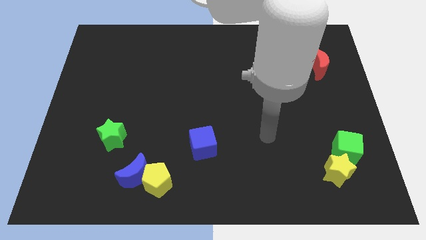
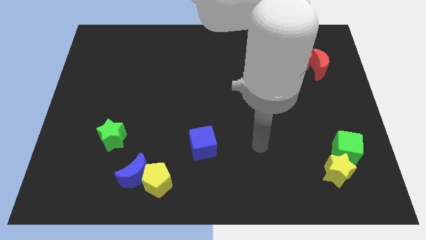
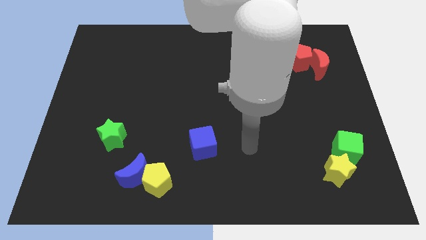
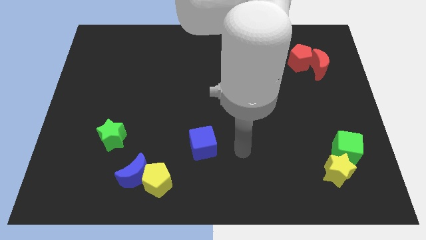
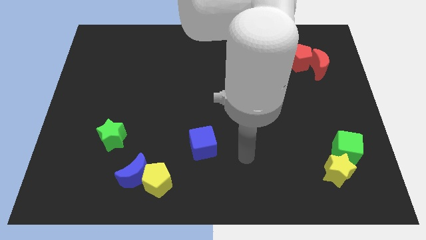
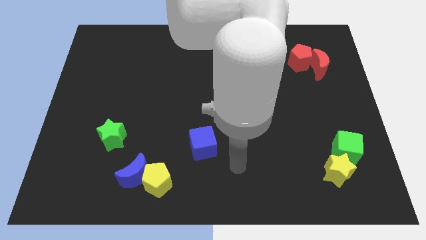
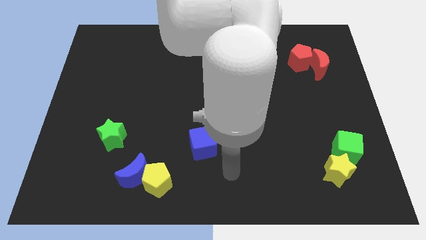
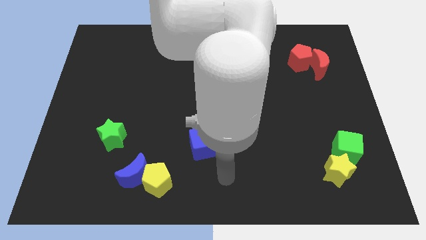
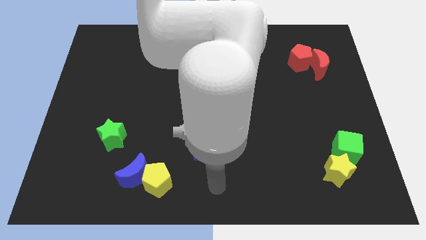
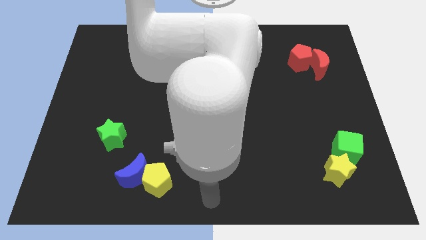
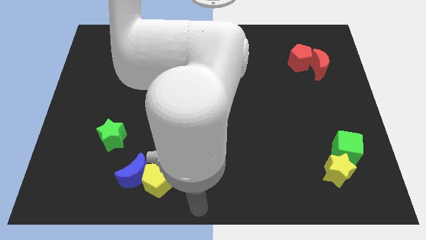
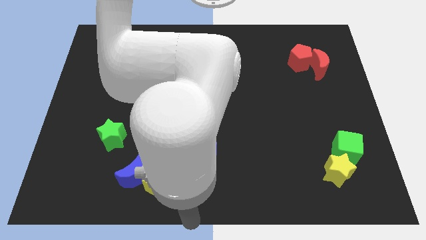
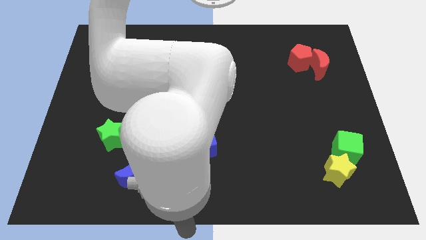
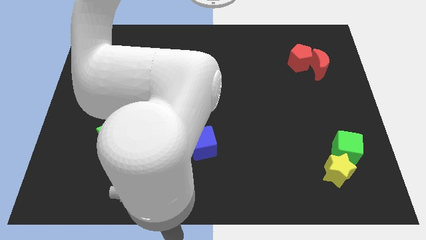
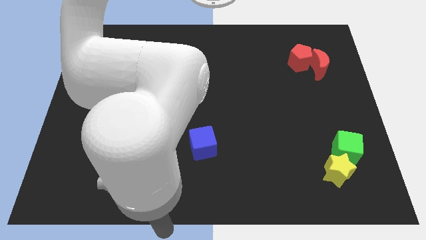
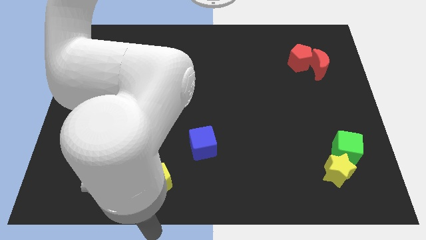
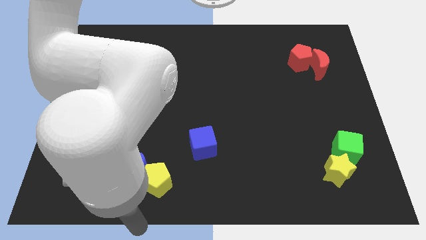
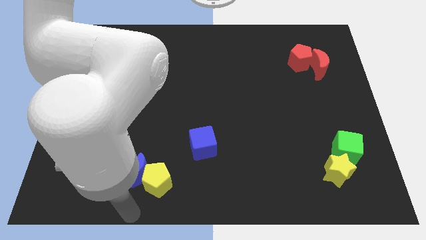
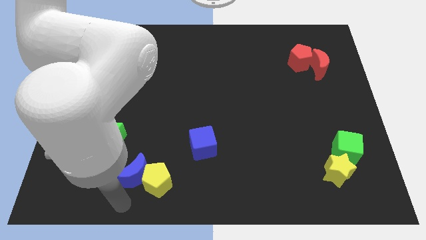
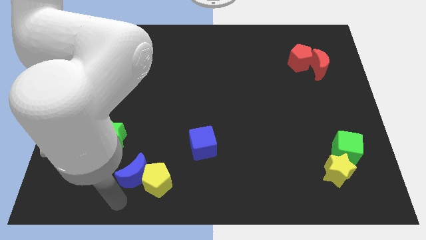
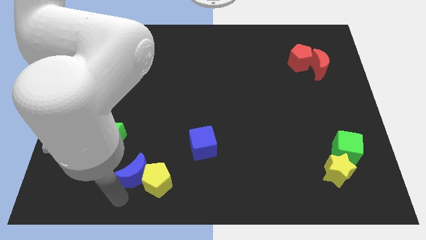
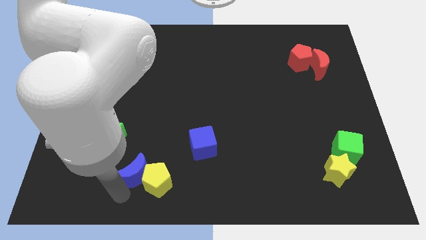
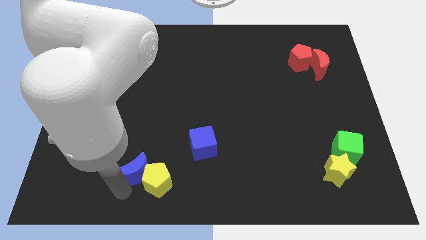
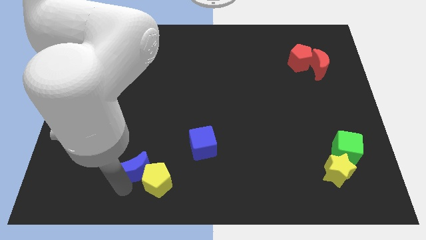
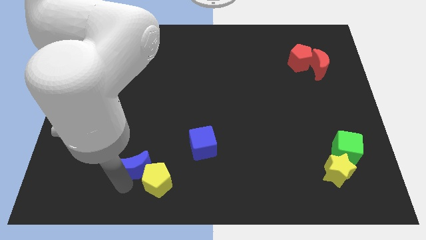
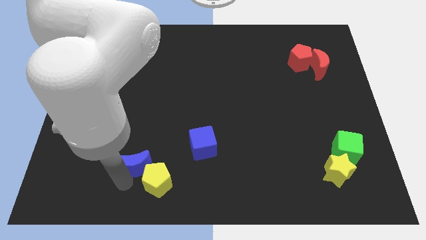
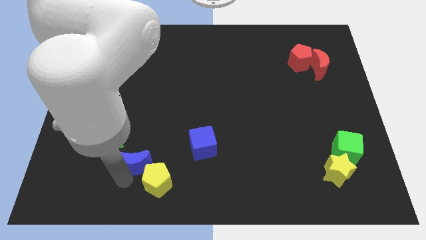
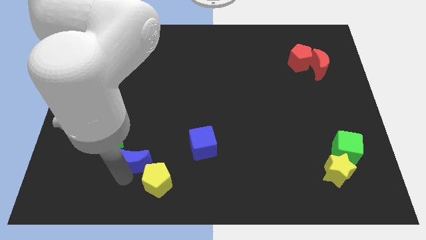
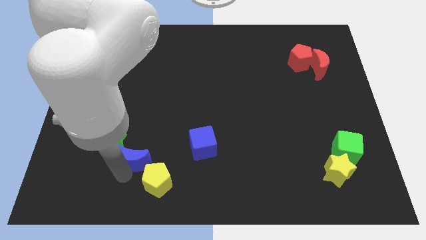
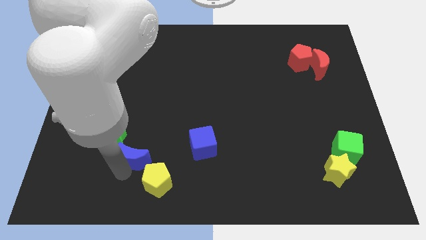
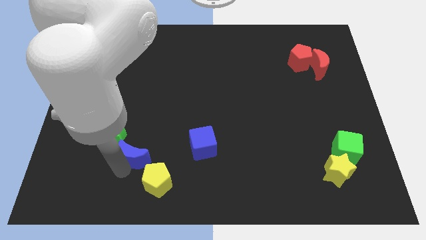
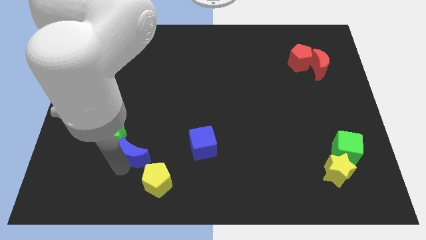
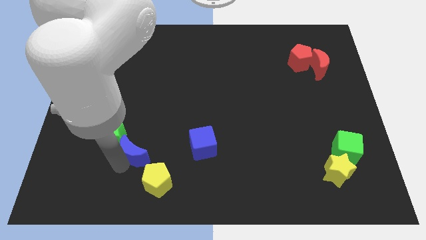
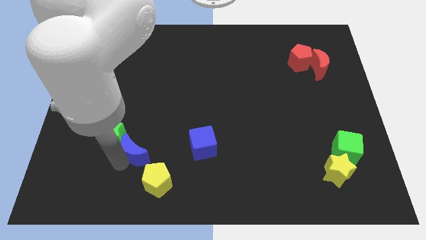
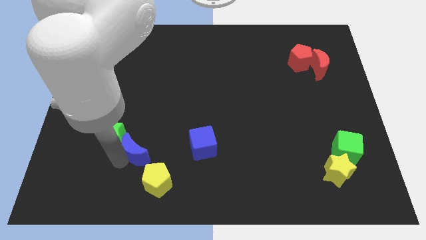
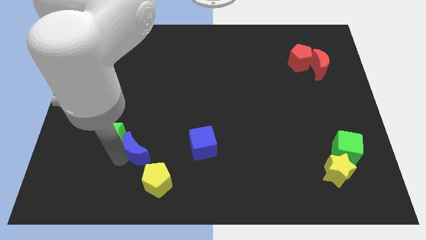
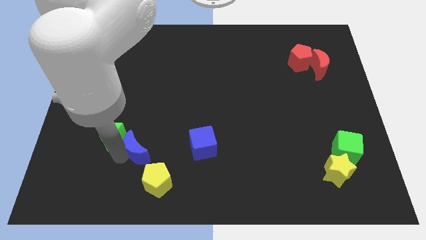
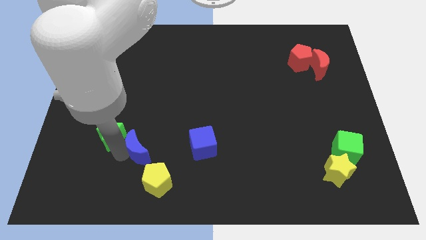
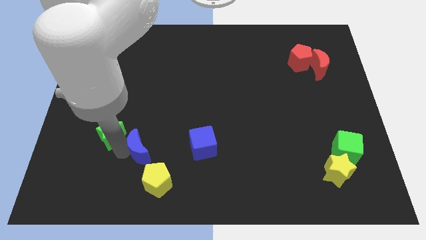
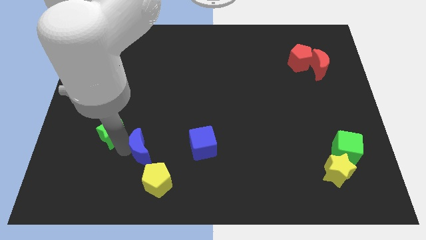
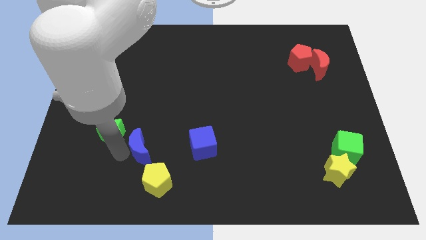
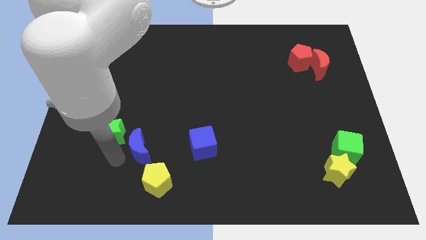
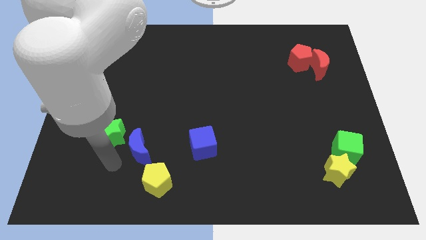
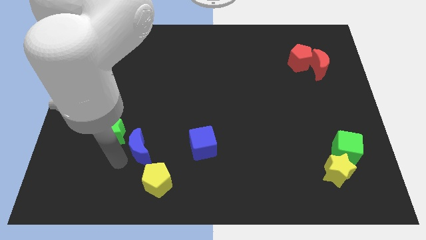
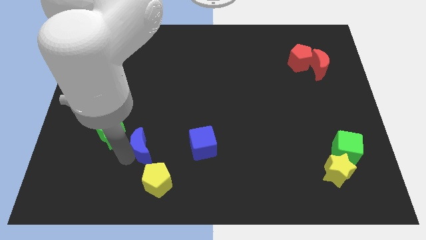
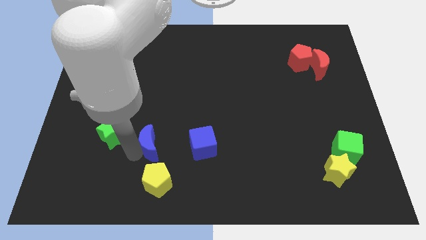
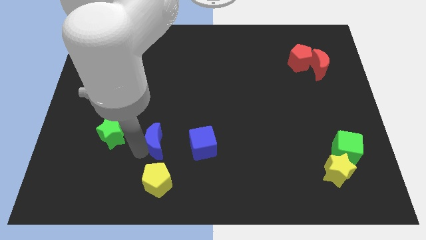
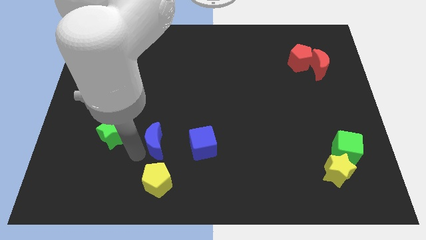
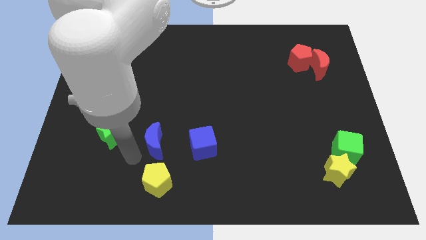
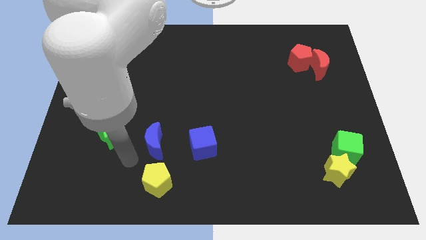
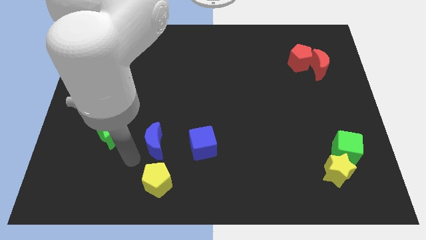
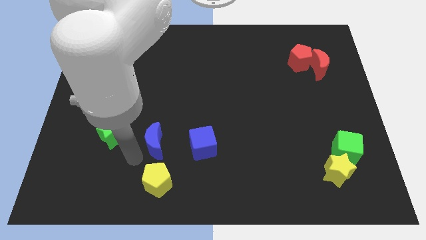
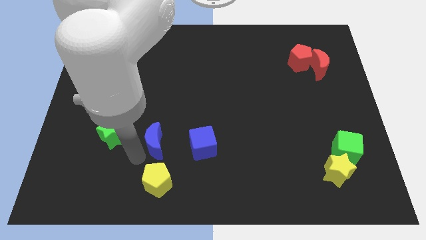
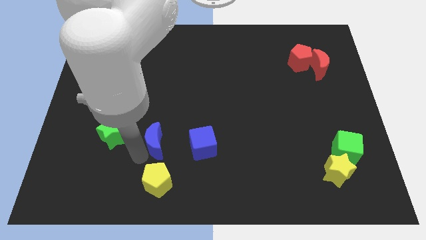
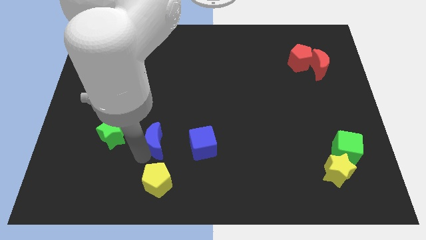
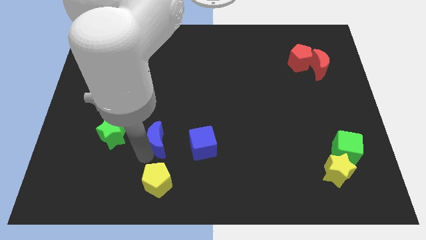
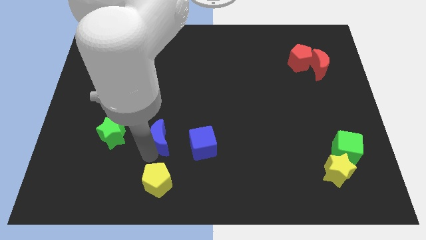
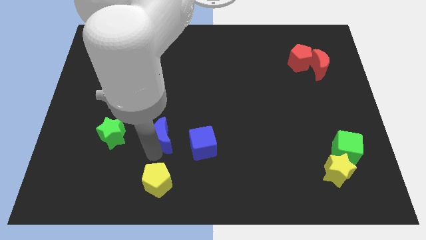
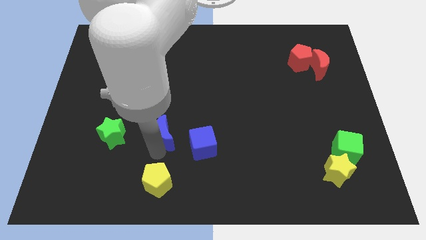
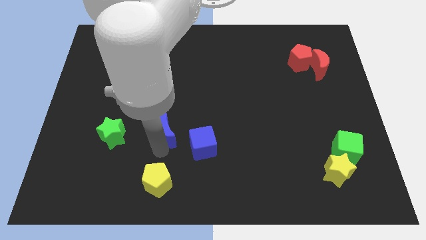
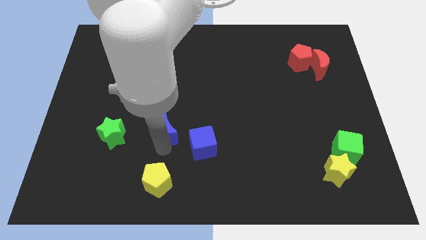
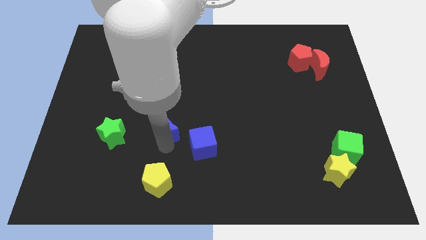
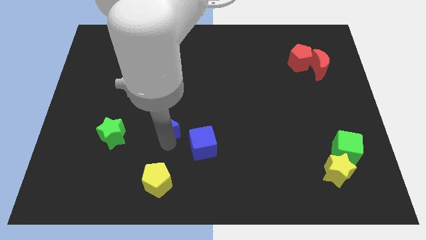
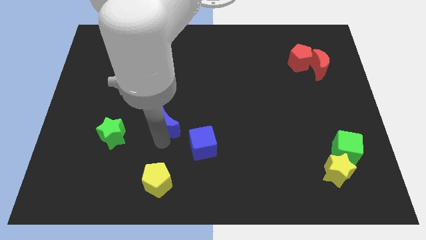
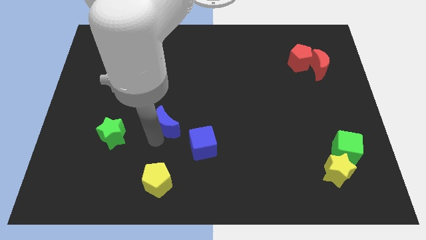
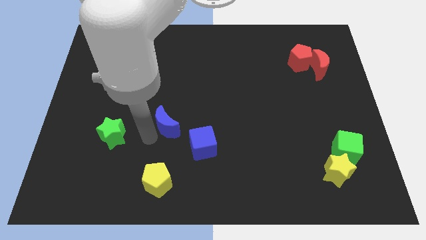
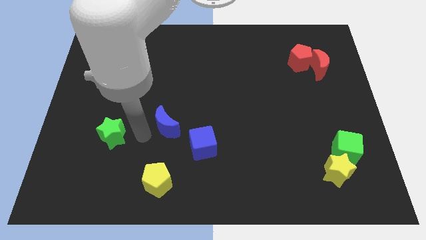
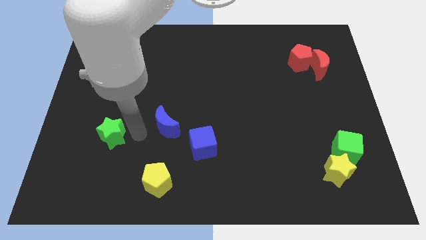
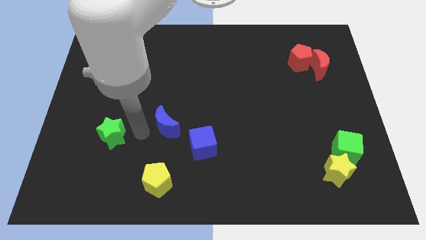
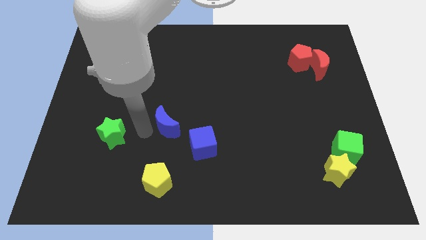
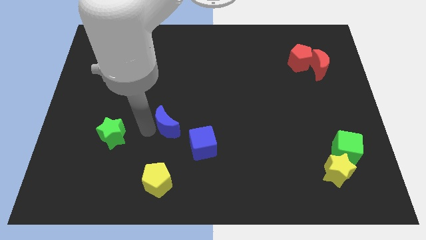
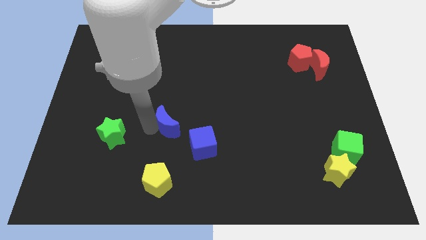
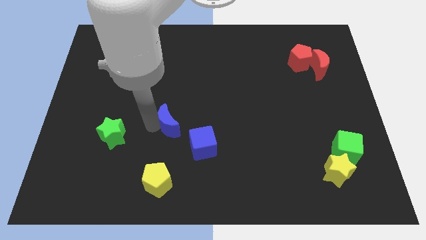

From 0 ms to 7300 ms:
slide the blue moon to the center of the board
